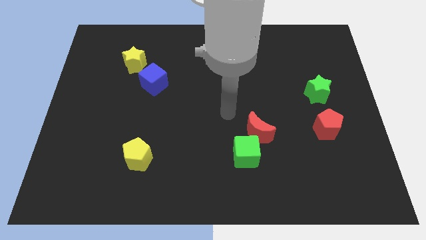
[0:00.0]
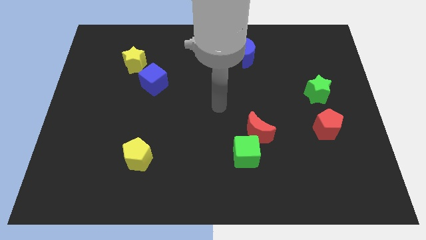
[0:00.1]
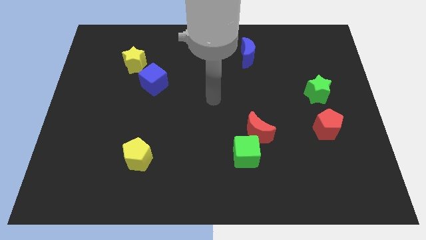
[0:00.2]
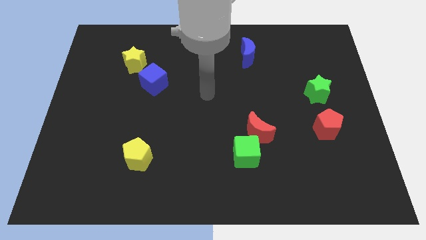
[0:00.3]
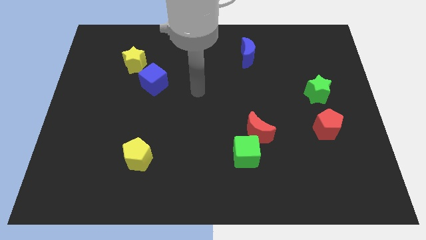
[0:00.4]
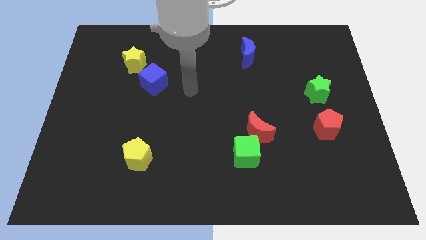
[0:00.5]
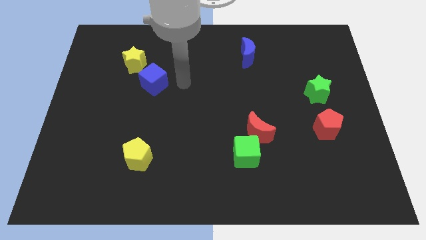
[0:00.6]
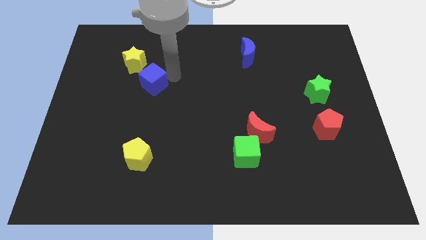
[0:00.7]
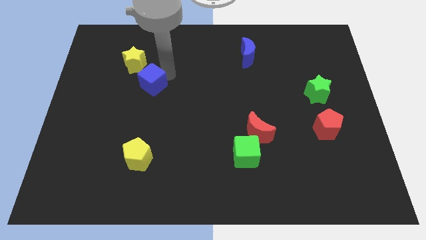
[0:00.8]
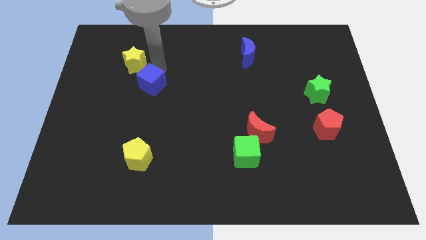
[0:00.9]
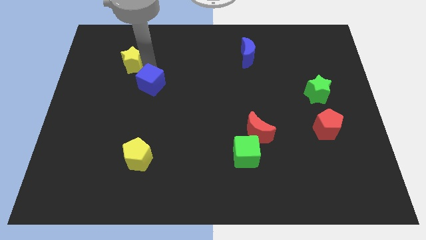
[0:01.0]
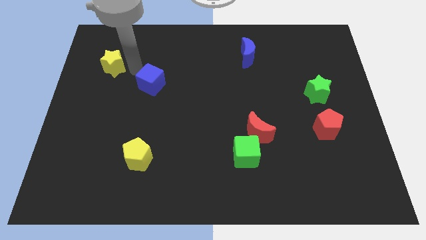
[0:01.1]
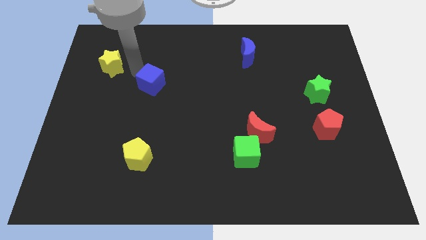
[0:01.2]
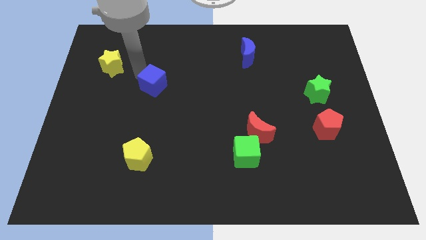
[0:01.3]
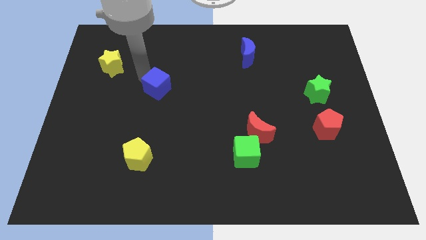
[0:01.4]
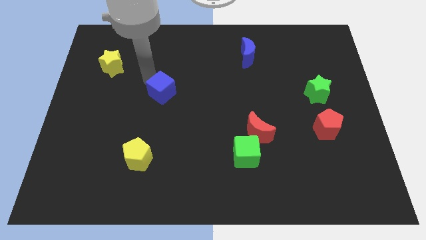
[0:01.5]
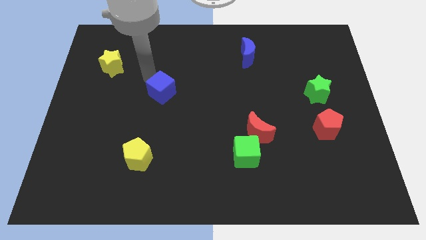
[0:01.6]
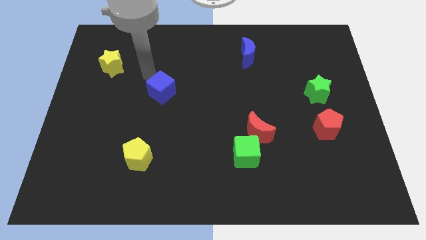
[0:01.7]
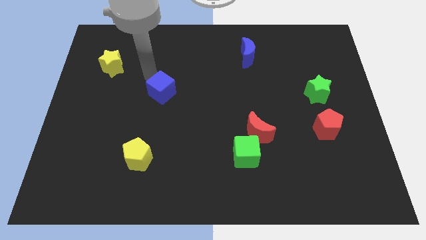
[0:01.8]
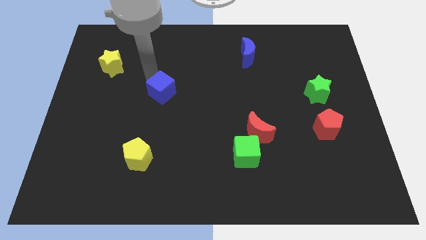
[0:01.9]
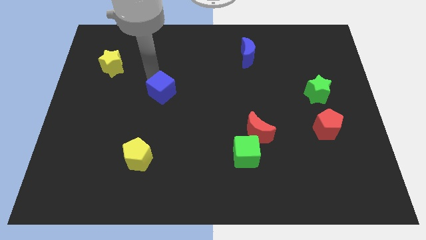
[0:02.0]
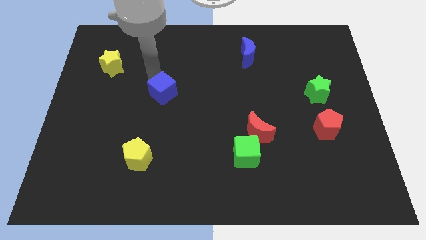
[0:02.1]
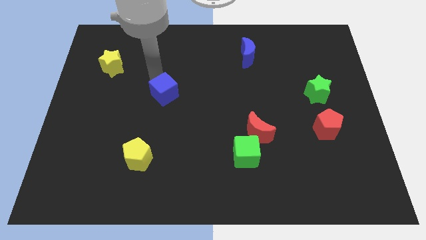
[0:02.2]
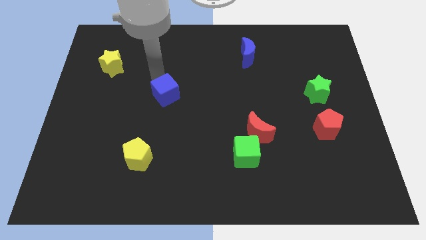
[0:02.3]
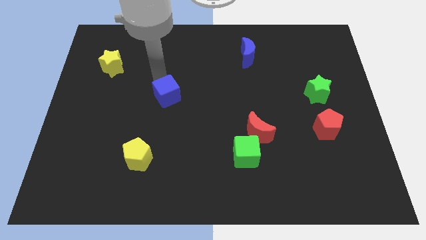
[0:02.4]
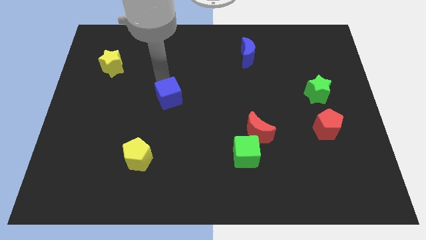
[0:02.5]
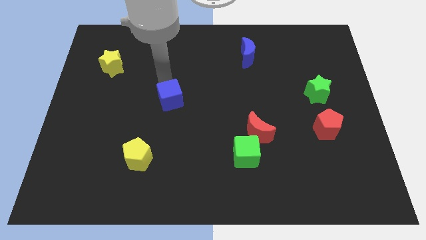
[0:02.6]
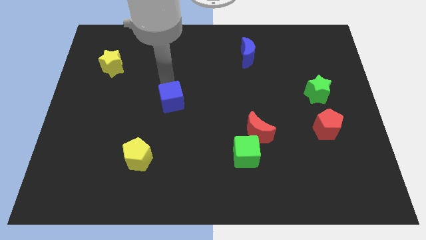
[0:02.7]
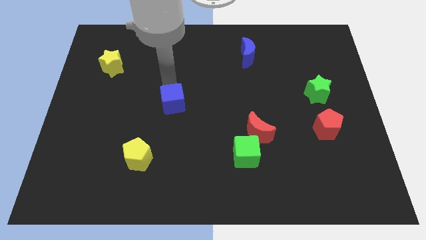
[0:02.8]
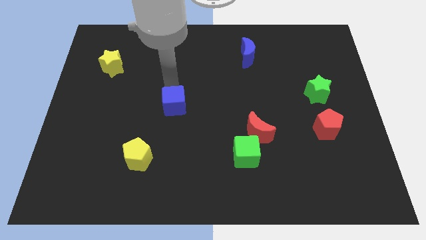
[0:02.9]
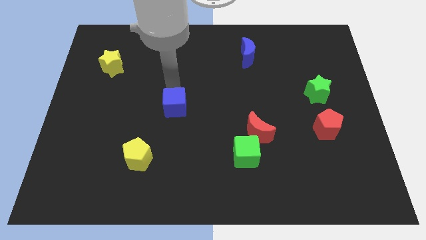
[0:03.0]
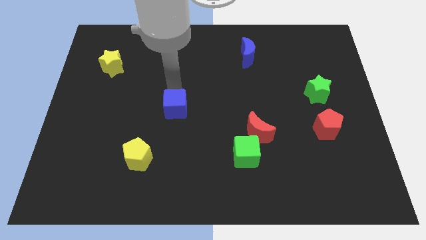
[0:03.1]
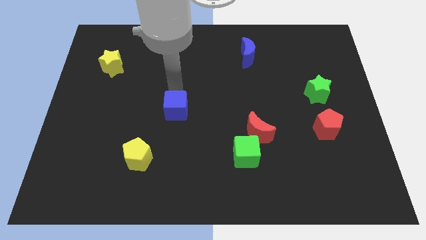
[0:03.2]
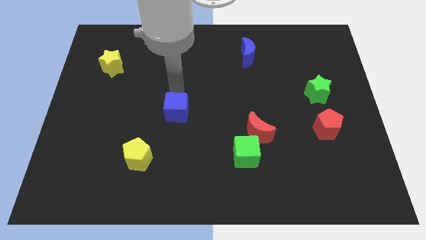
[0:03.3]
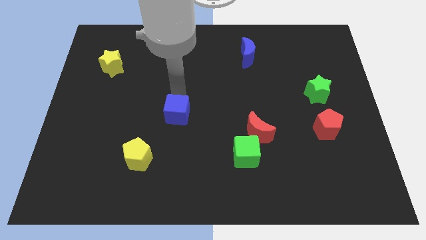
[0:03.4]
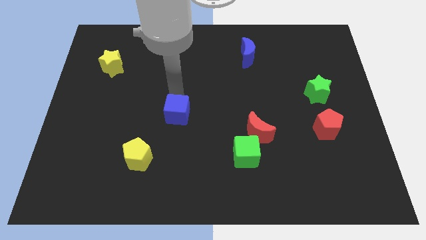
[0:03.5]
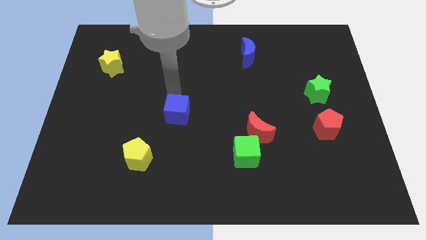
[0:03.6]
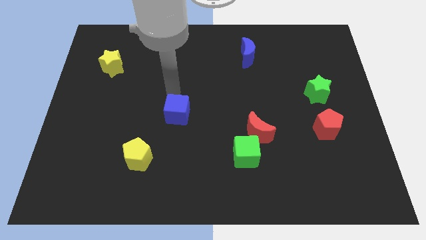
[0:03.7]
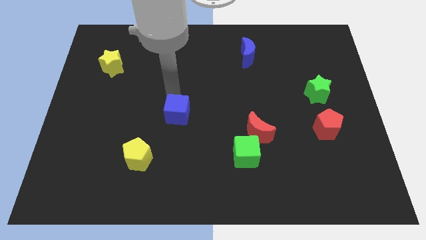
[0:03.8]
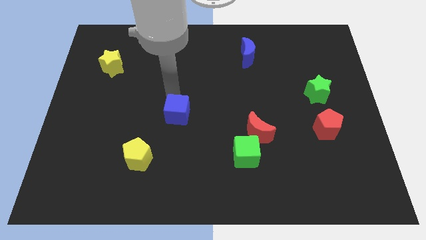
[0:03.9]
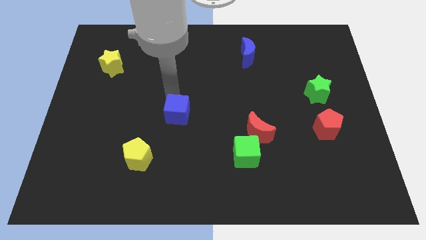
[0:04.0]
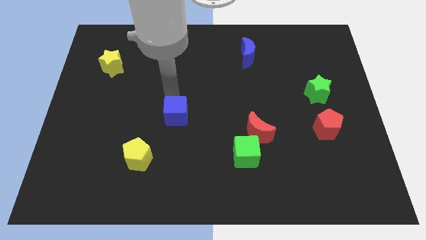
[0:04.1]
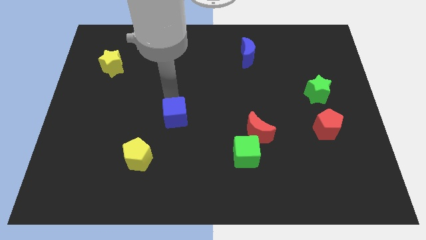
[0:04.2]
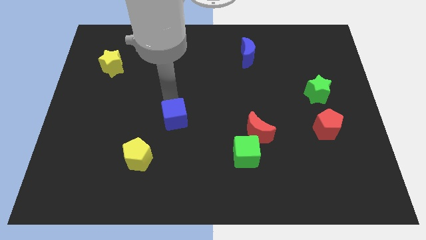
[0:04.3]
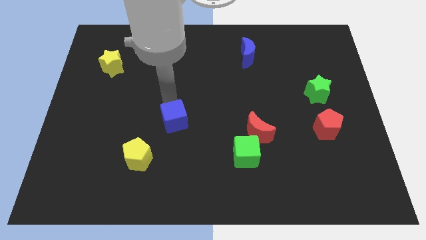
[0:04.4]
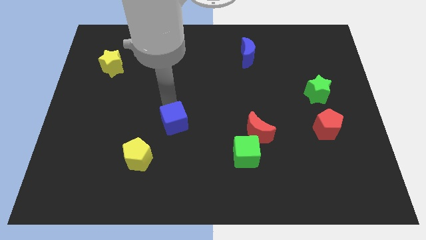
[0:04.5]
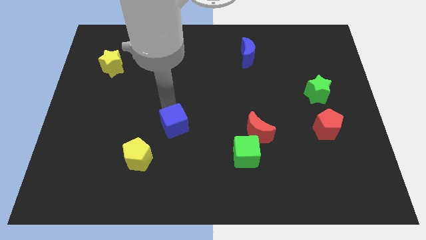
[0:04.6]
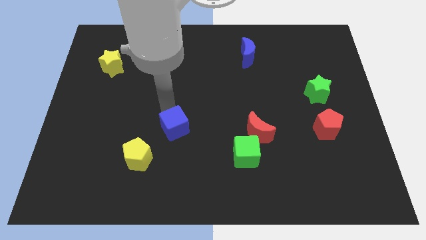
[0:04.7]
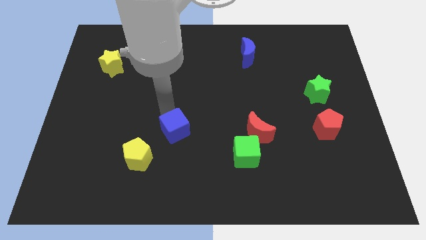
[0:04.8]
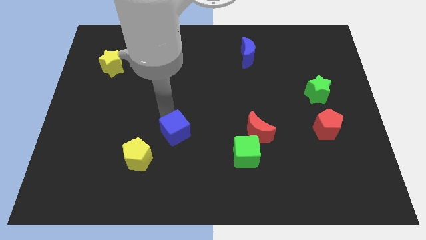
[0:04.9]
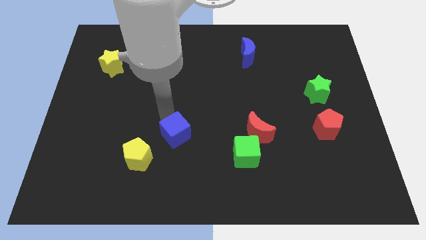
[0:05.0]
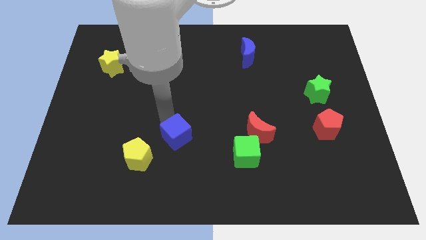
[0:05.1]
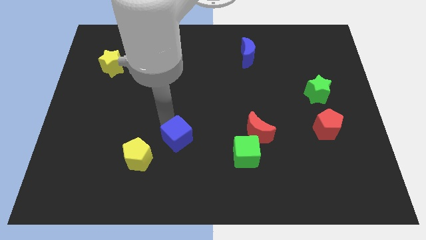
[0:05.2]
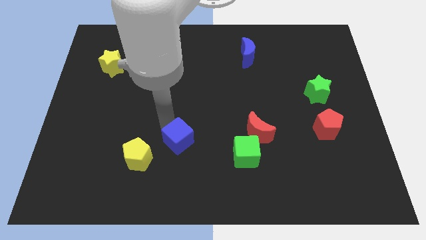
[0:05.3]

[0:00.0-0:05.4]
put the blue cube to the left of the green cube

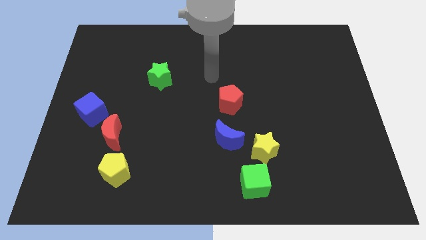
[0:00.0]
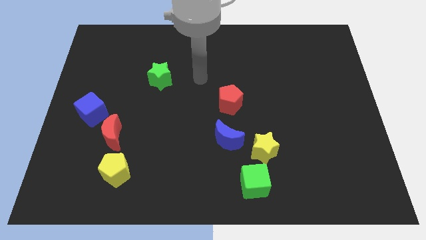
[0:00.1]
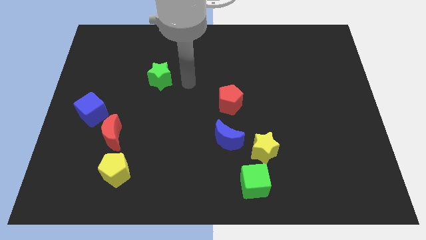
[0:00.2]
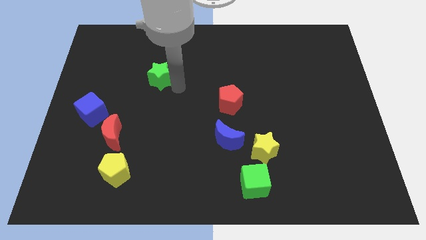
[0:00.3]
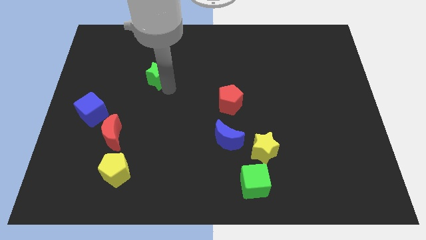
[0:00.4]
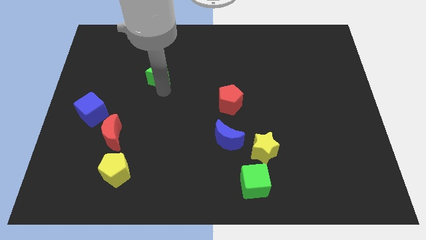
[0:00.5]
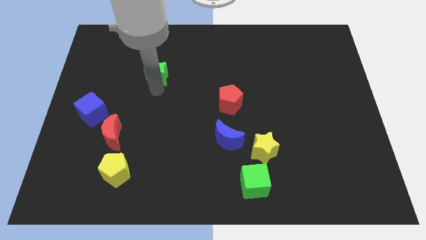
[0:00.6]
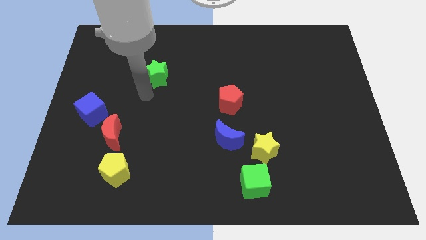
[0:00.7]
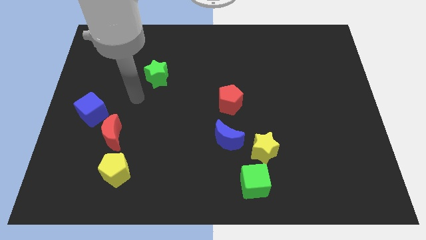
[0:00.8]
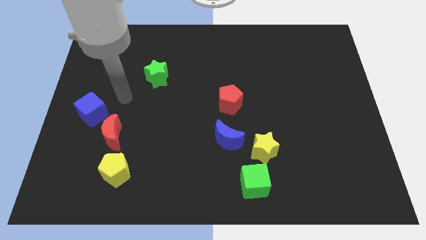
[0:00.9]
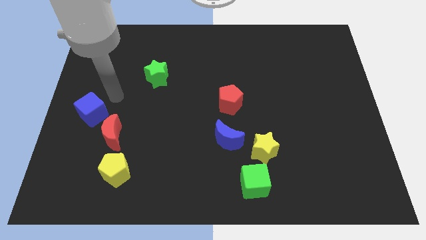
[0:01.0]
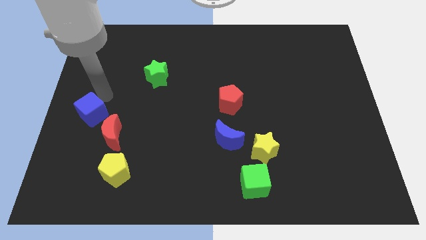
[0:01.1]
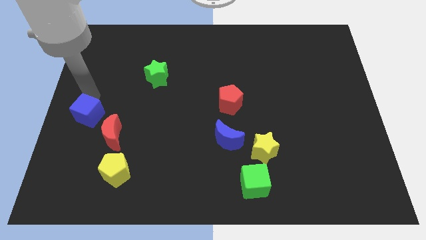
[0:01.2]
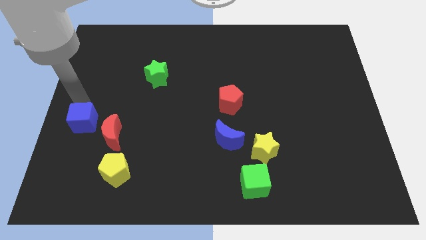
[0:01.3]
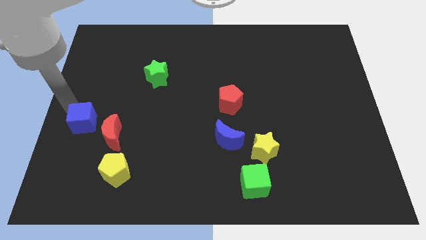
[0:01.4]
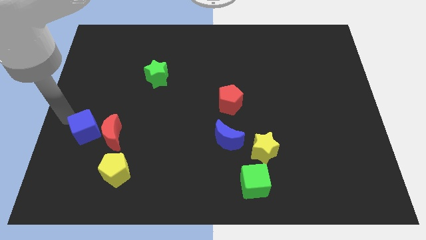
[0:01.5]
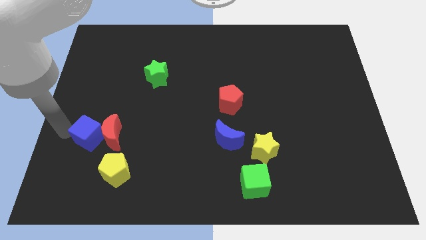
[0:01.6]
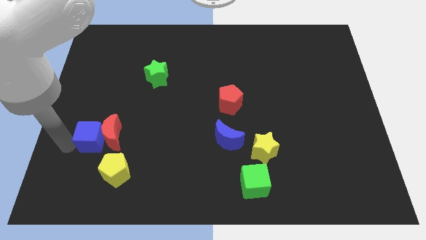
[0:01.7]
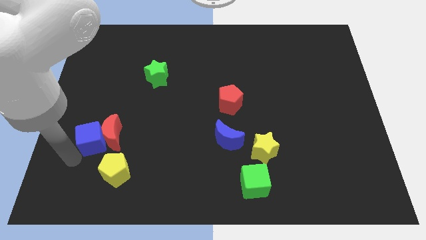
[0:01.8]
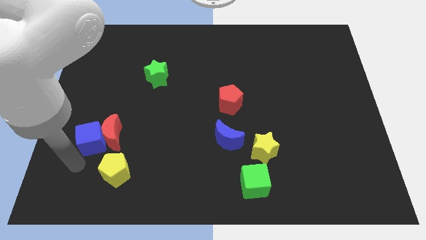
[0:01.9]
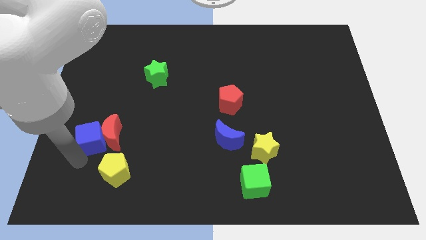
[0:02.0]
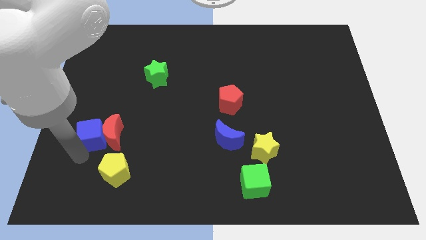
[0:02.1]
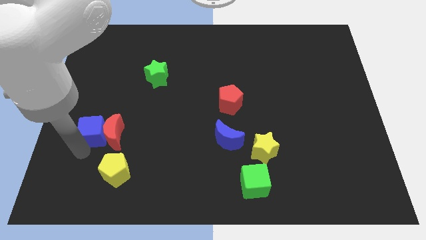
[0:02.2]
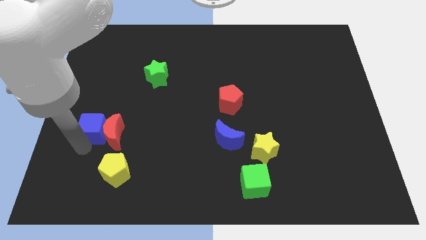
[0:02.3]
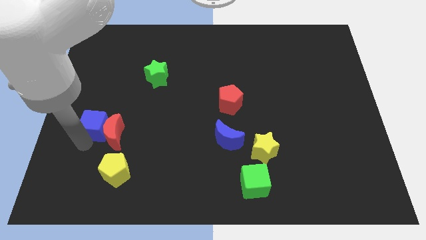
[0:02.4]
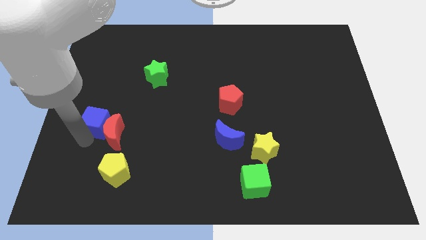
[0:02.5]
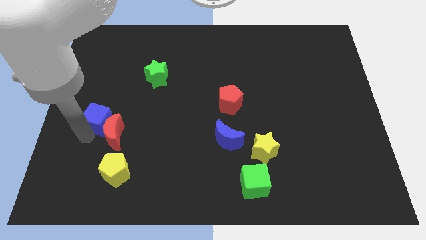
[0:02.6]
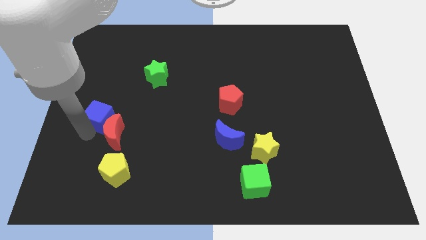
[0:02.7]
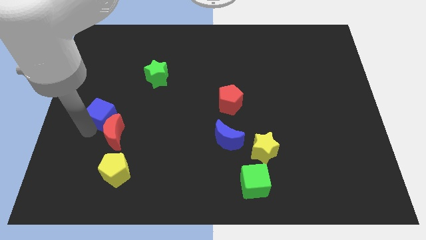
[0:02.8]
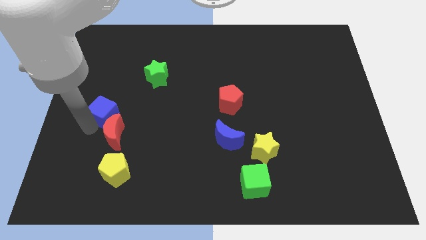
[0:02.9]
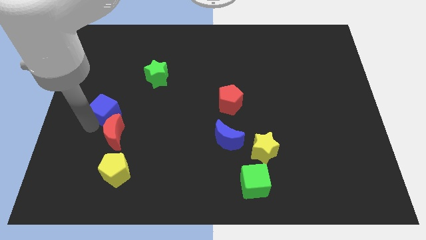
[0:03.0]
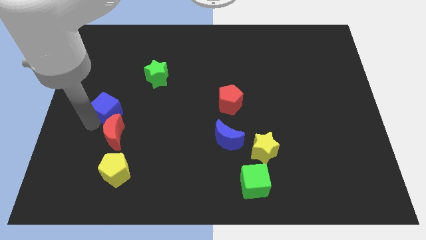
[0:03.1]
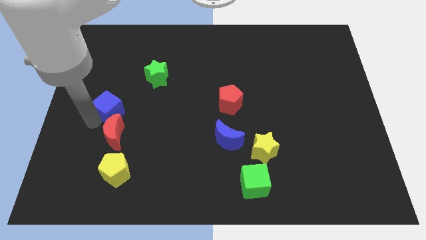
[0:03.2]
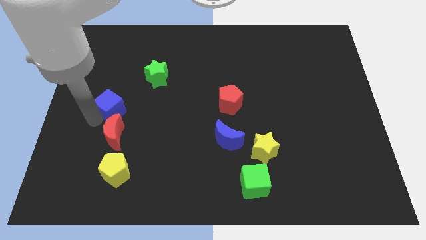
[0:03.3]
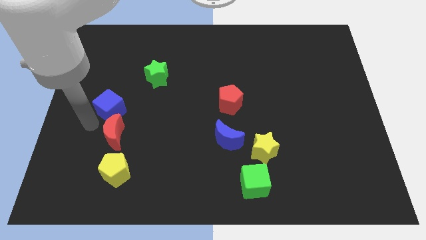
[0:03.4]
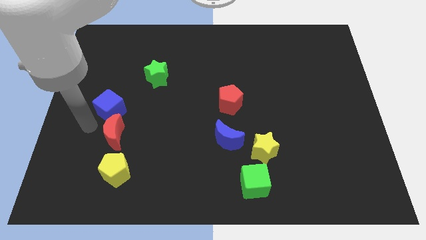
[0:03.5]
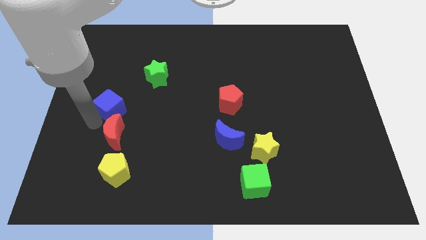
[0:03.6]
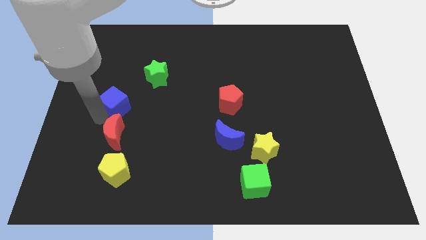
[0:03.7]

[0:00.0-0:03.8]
push the blue cube to the bottom left side of the green star
